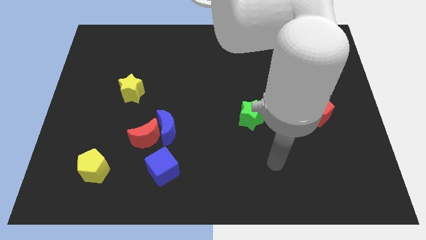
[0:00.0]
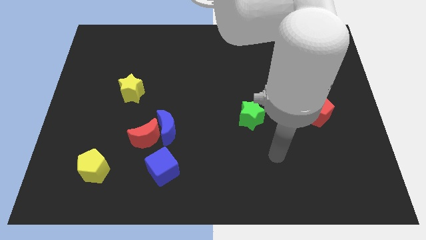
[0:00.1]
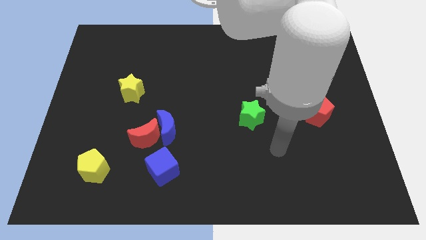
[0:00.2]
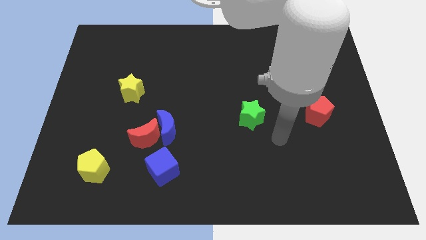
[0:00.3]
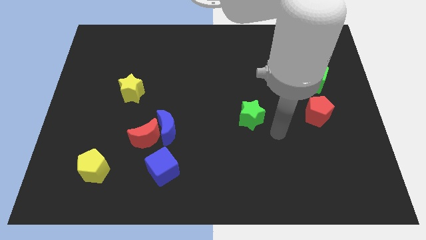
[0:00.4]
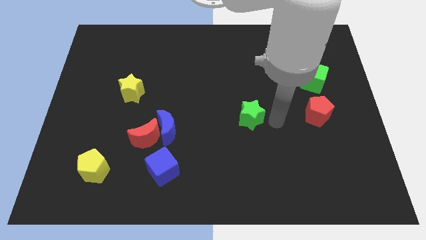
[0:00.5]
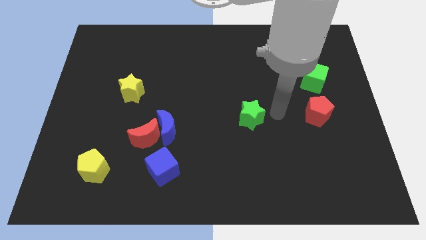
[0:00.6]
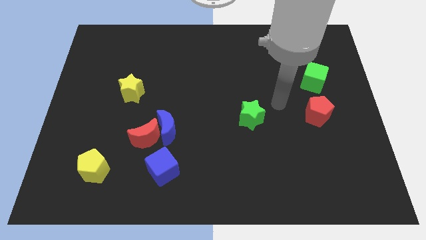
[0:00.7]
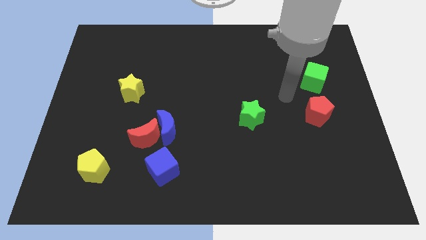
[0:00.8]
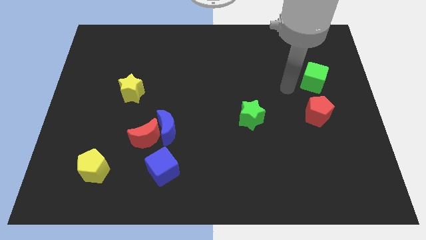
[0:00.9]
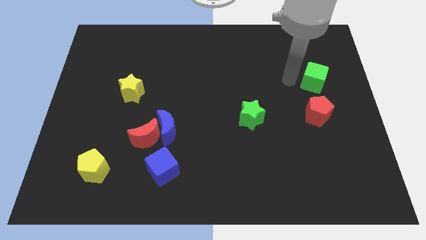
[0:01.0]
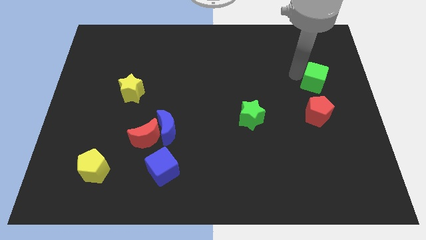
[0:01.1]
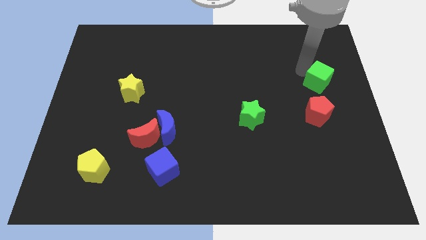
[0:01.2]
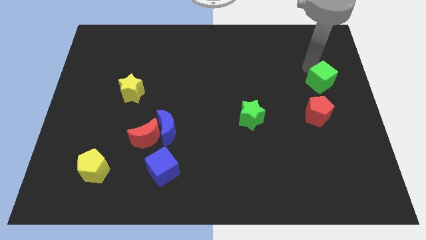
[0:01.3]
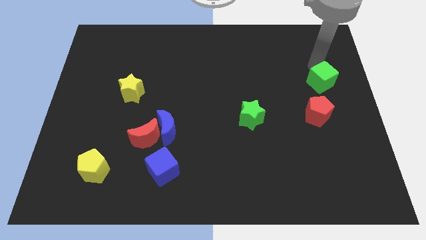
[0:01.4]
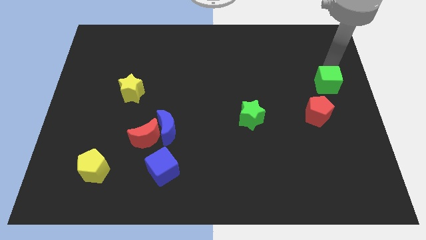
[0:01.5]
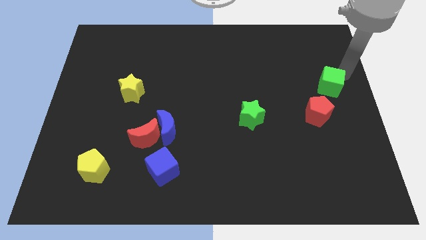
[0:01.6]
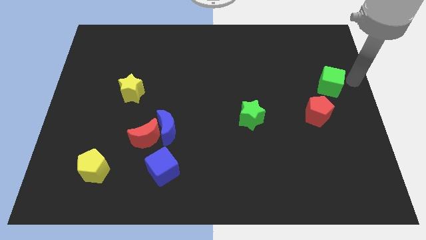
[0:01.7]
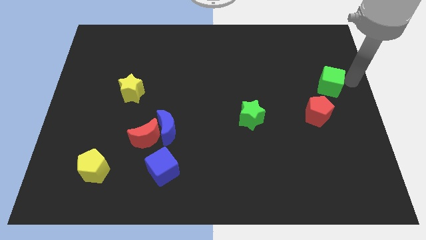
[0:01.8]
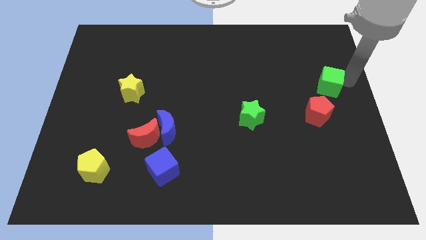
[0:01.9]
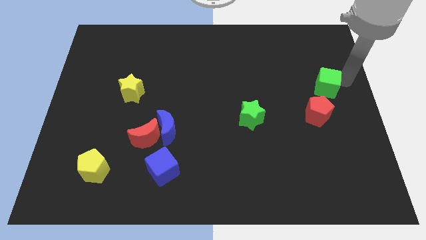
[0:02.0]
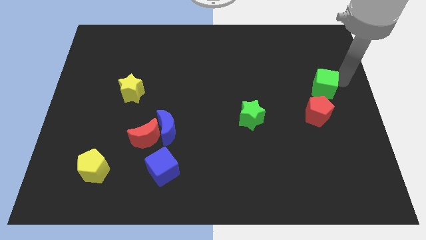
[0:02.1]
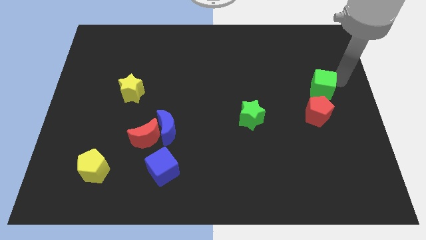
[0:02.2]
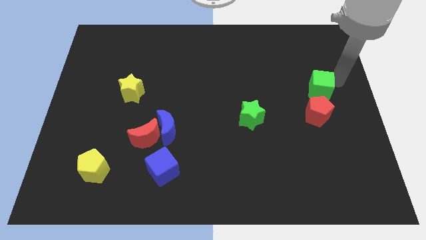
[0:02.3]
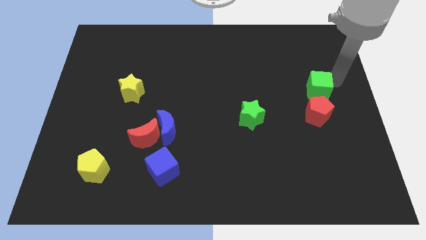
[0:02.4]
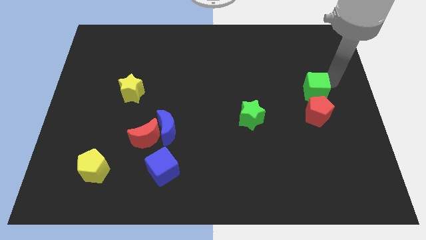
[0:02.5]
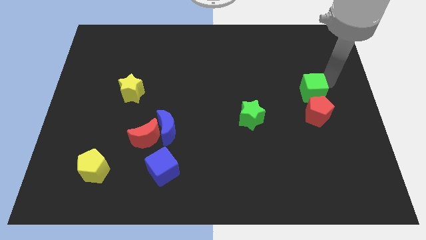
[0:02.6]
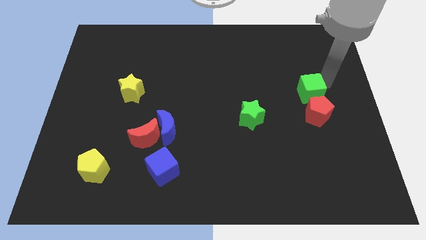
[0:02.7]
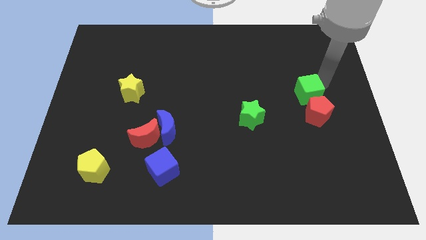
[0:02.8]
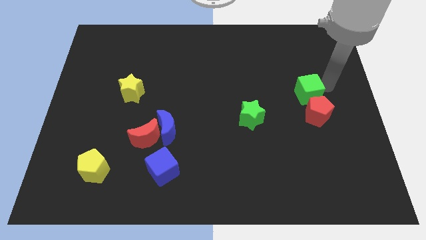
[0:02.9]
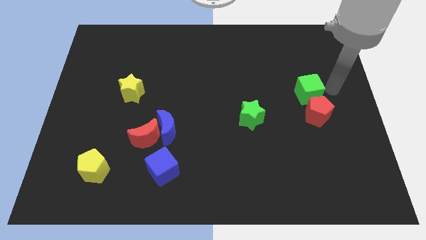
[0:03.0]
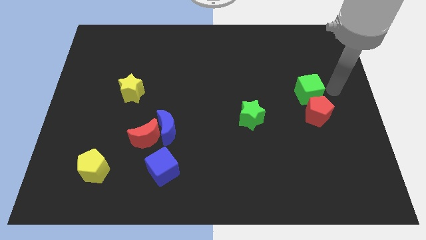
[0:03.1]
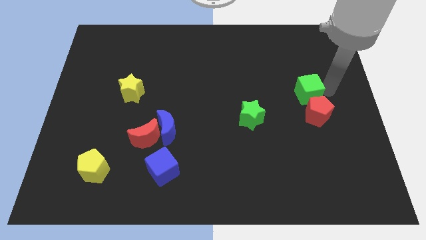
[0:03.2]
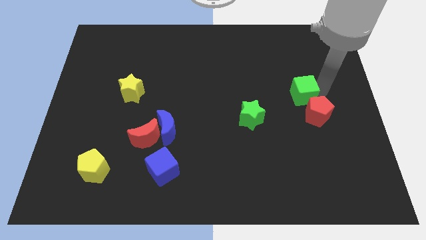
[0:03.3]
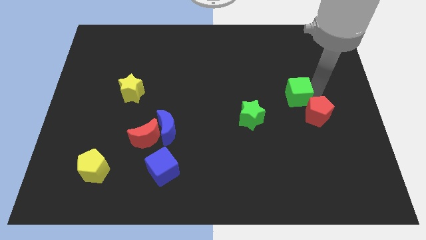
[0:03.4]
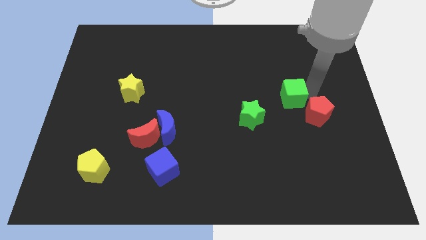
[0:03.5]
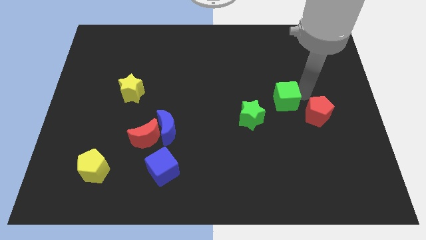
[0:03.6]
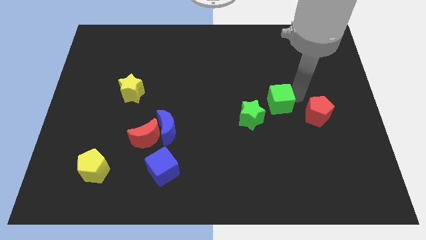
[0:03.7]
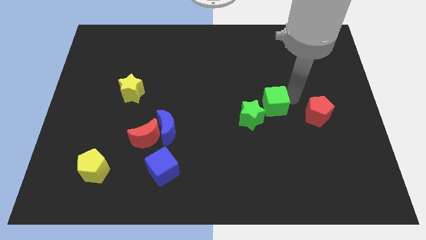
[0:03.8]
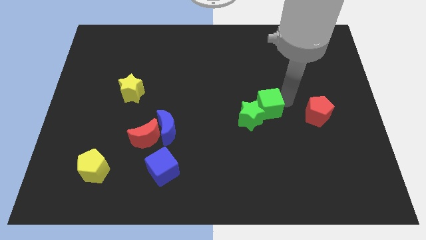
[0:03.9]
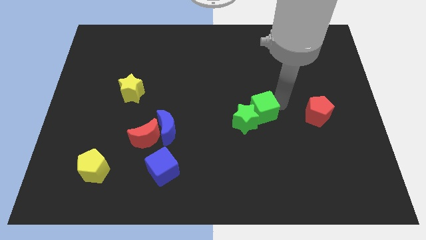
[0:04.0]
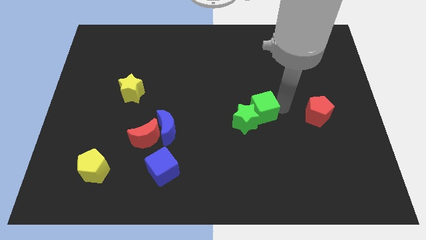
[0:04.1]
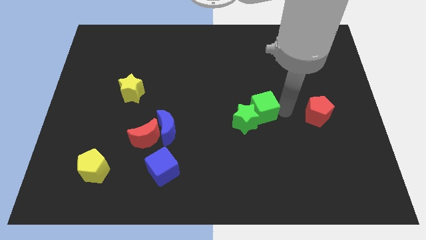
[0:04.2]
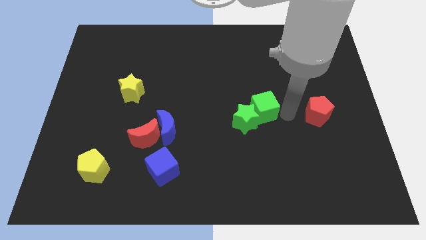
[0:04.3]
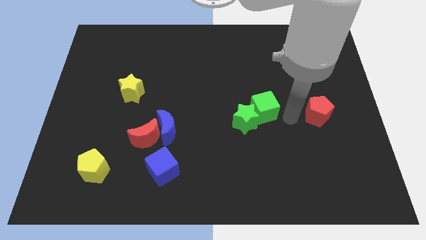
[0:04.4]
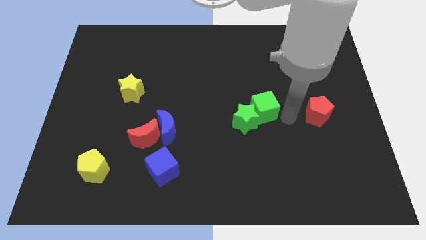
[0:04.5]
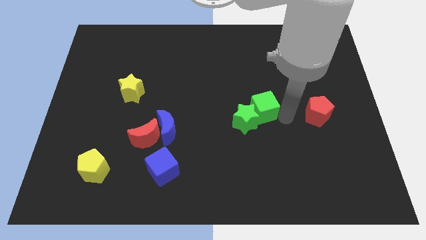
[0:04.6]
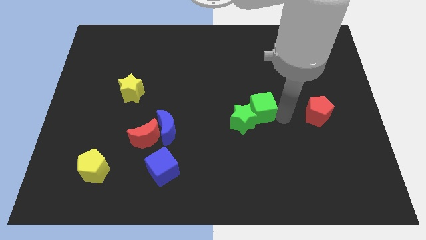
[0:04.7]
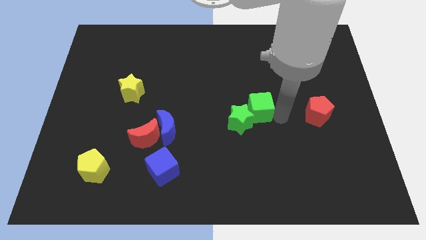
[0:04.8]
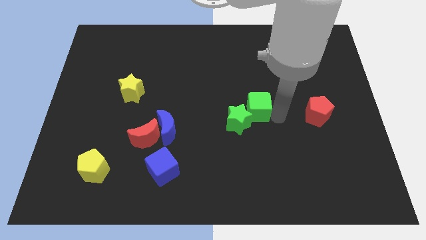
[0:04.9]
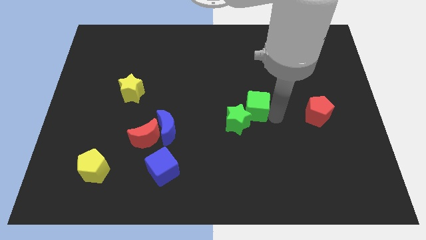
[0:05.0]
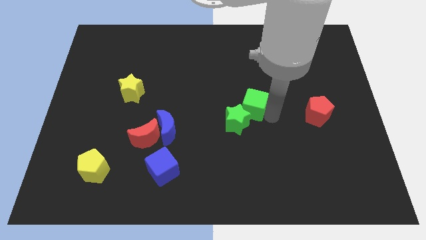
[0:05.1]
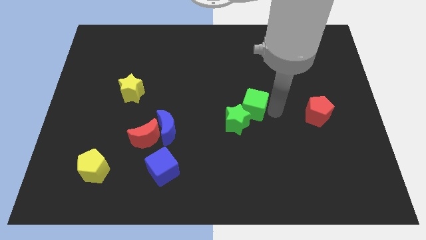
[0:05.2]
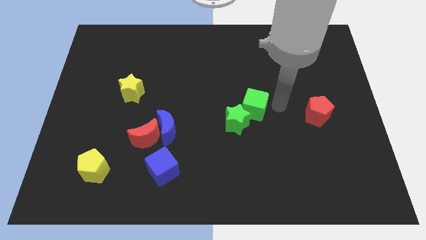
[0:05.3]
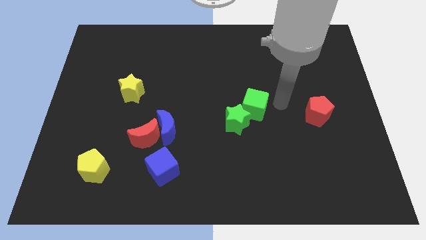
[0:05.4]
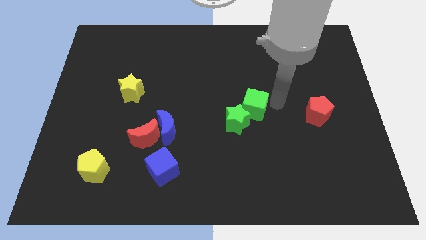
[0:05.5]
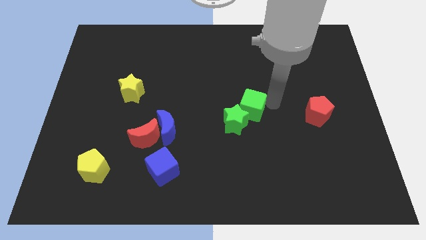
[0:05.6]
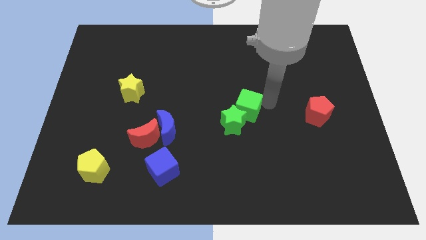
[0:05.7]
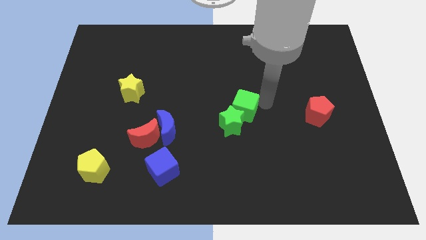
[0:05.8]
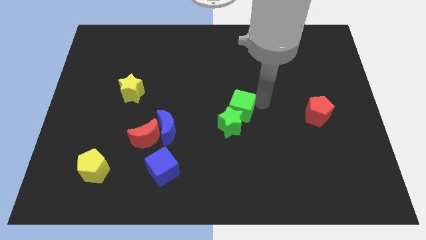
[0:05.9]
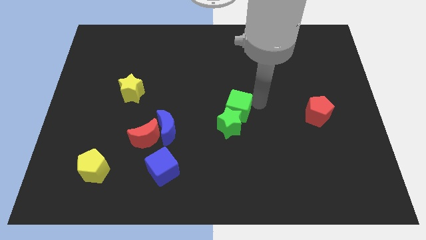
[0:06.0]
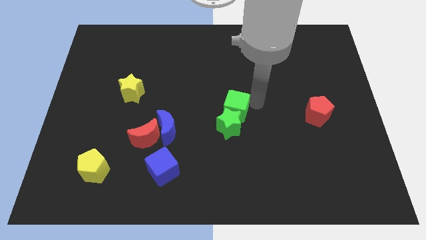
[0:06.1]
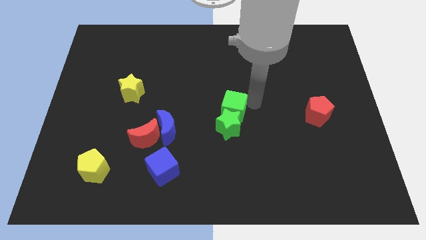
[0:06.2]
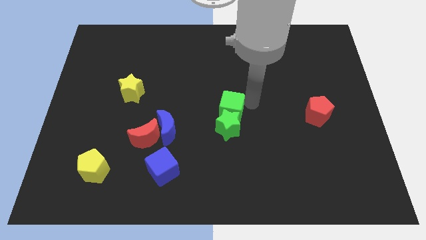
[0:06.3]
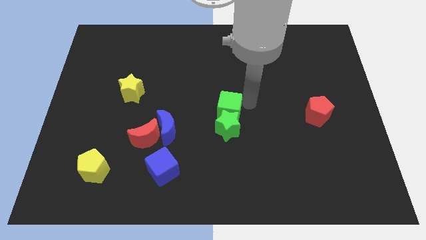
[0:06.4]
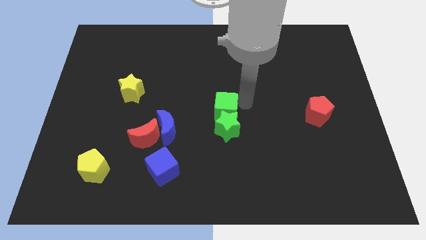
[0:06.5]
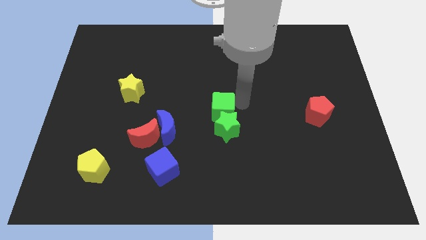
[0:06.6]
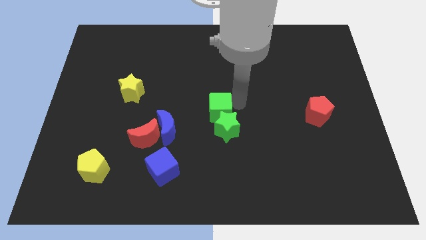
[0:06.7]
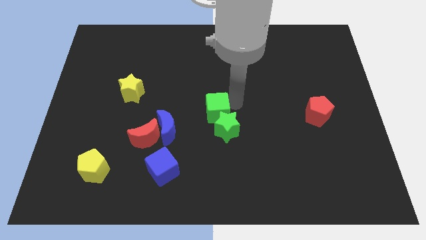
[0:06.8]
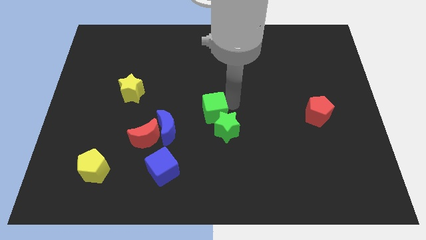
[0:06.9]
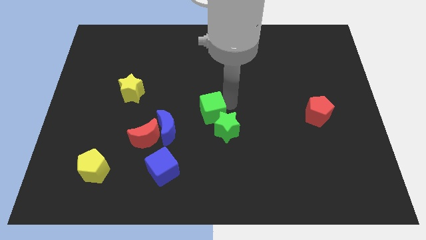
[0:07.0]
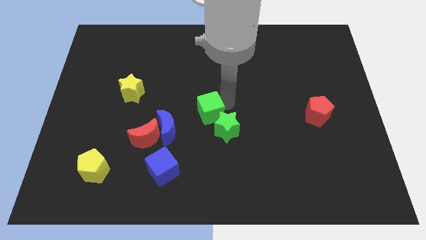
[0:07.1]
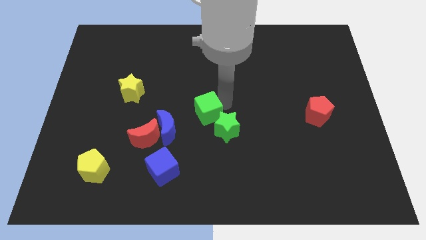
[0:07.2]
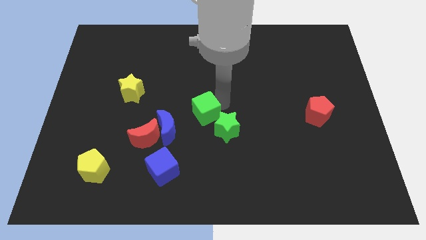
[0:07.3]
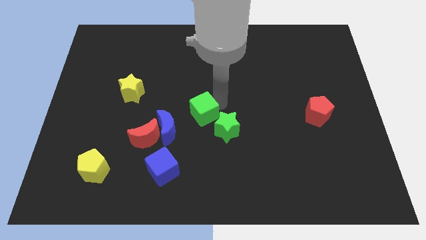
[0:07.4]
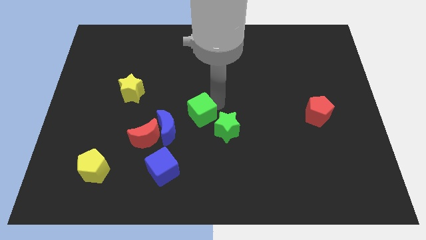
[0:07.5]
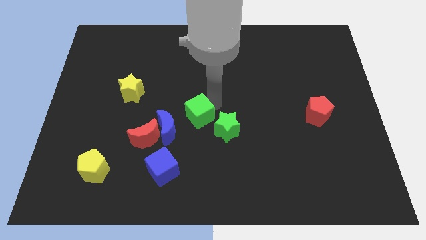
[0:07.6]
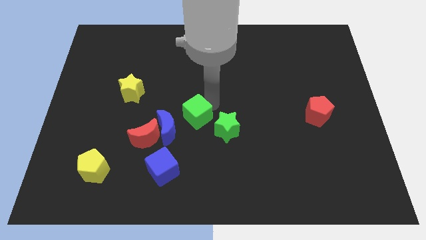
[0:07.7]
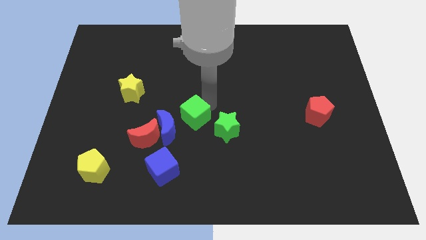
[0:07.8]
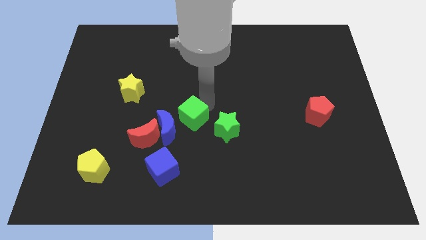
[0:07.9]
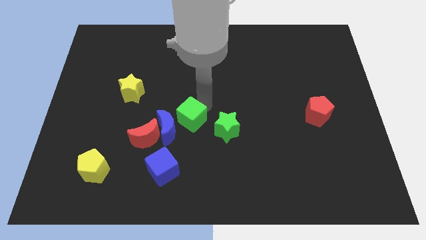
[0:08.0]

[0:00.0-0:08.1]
push the green cube next to the blue moon
